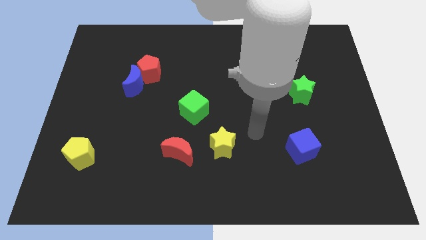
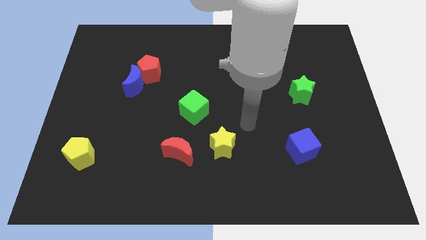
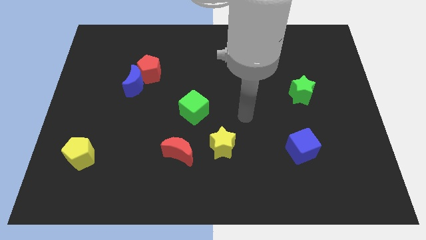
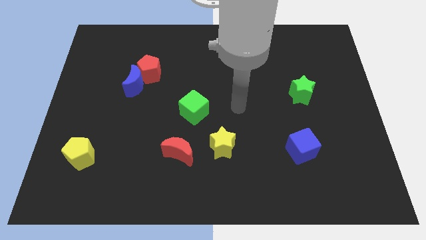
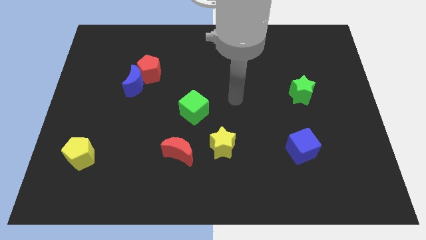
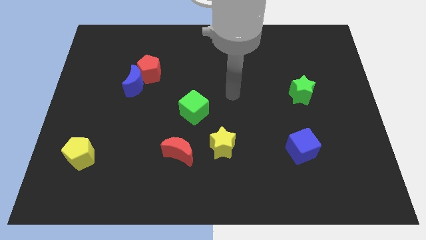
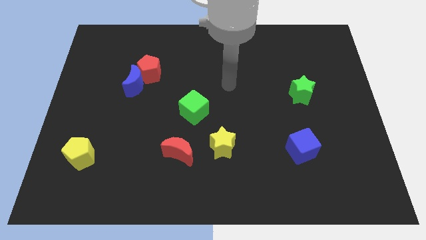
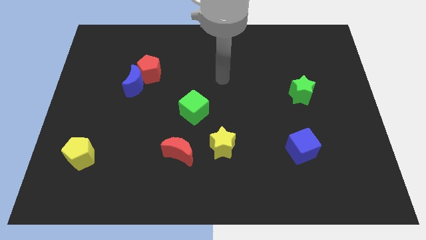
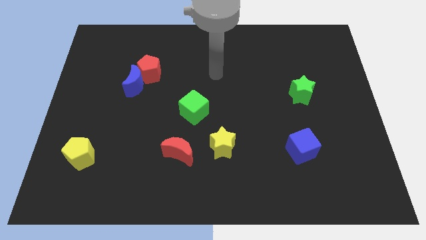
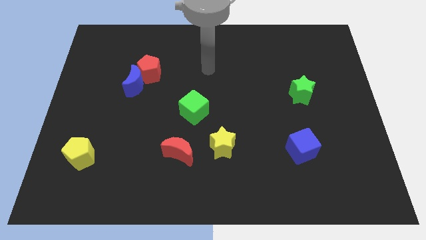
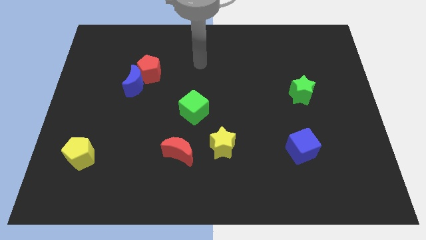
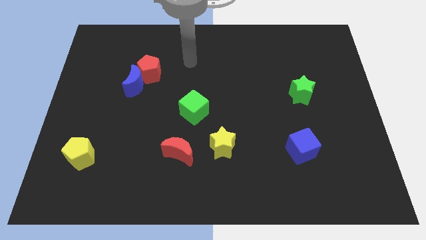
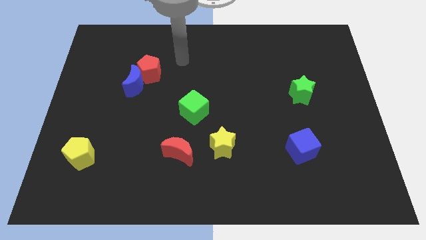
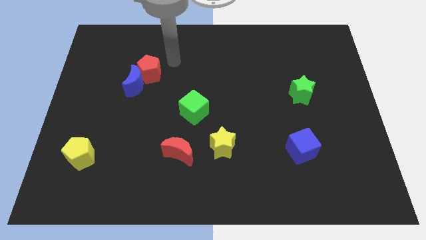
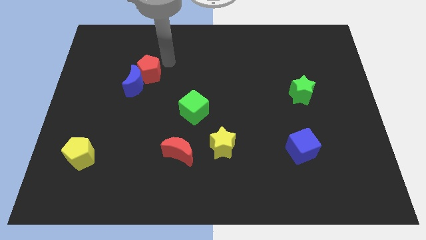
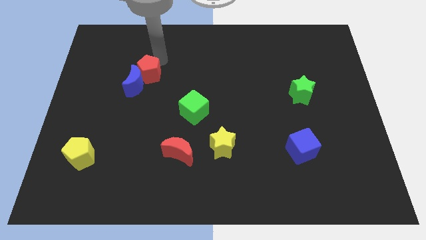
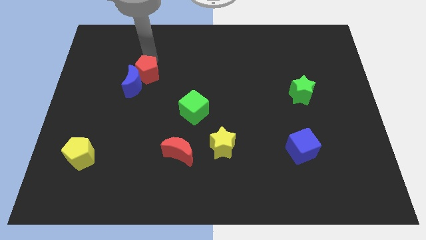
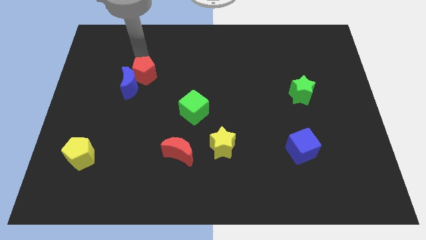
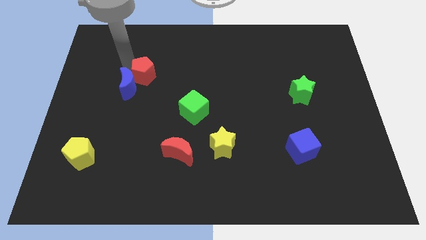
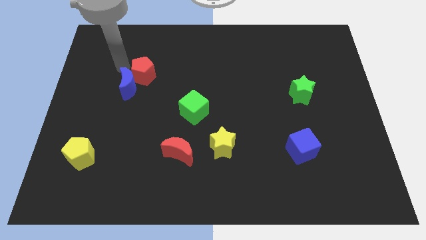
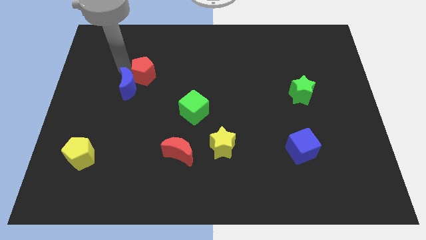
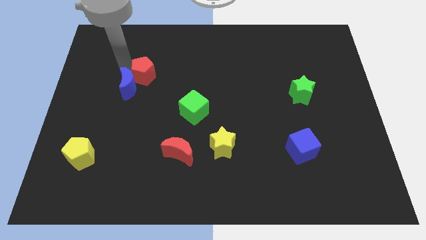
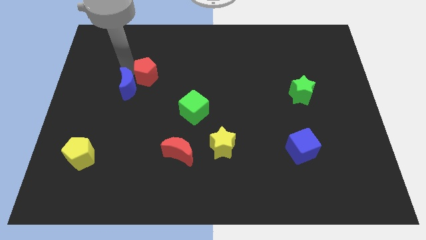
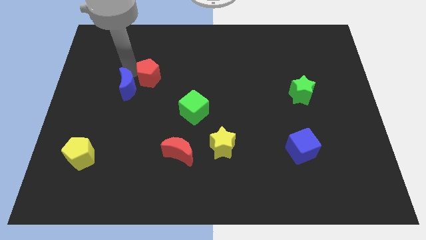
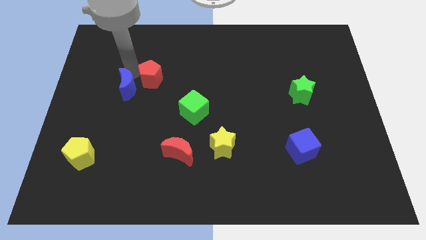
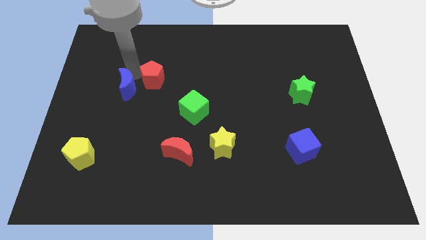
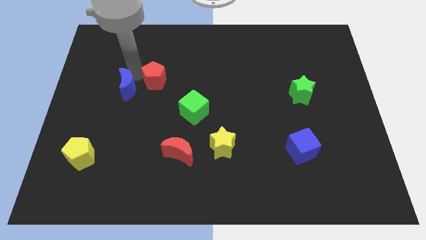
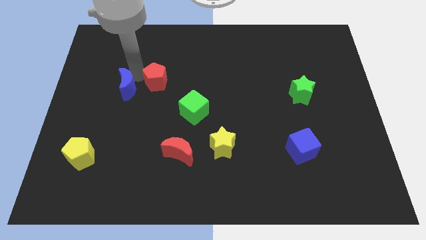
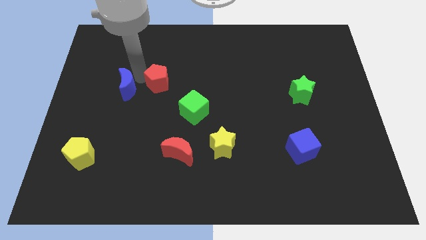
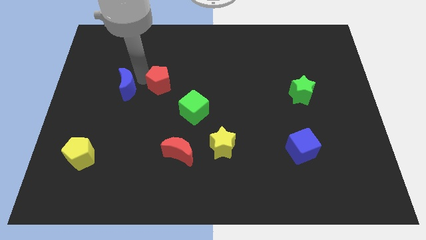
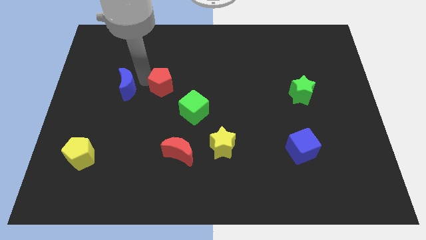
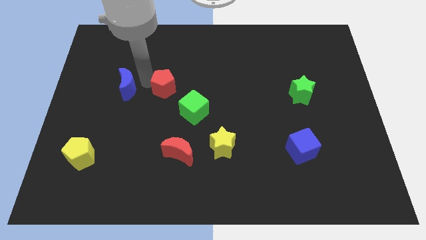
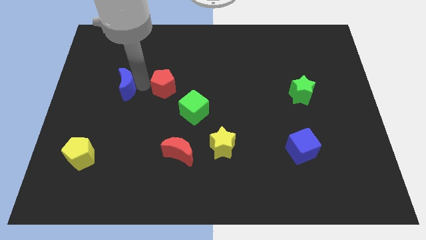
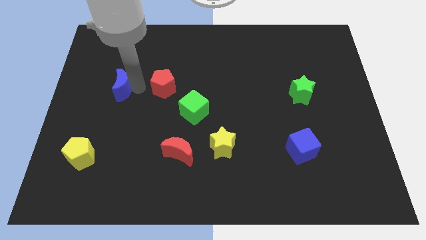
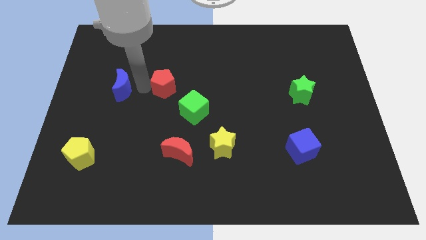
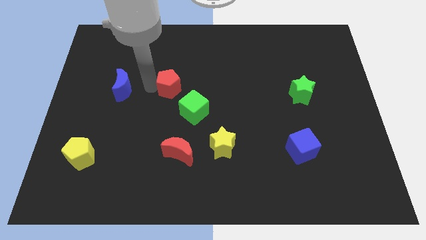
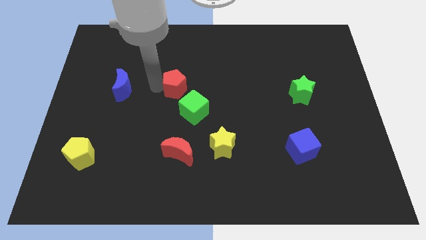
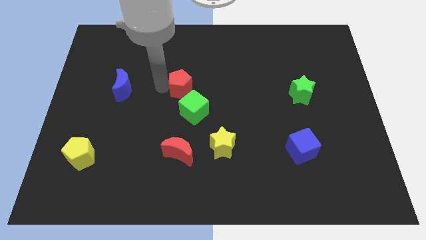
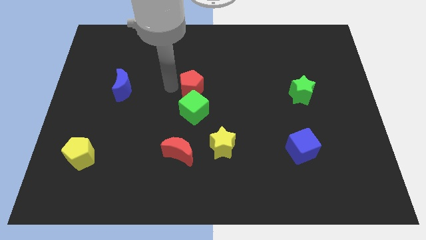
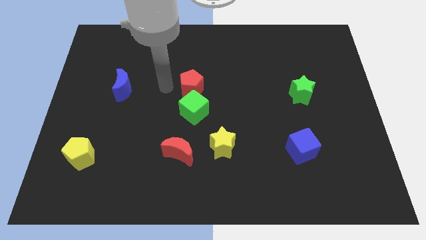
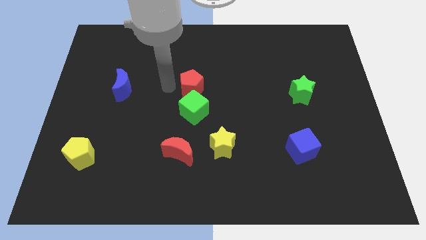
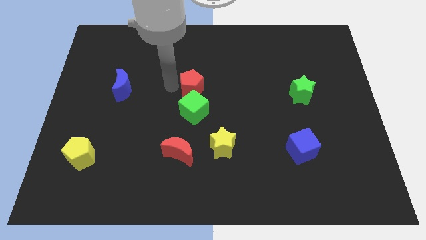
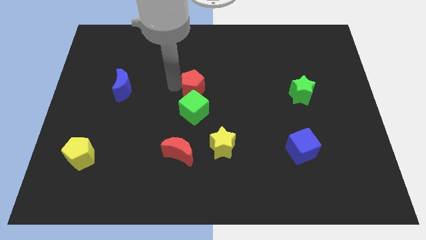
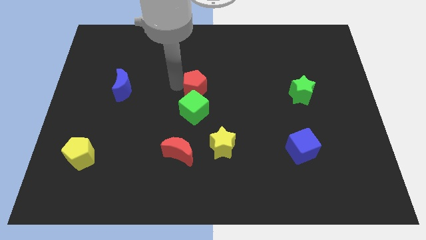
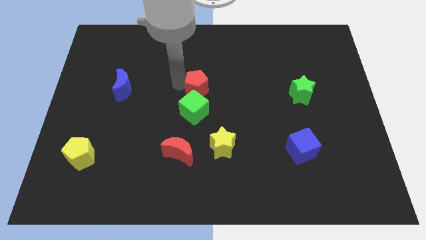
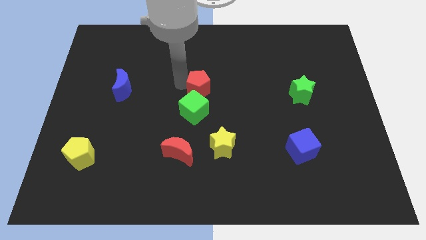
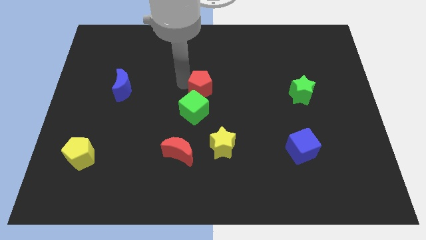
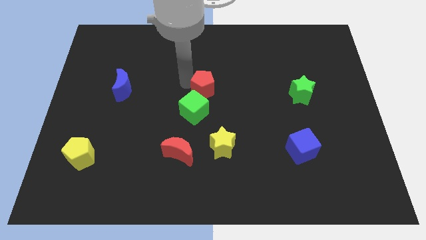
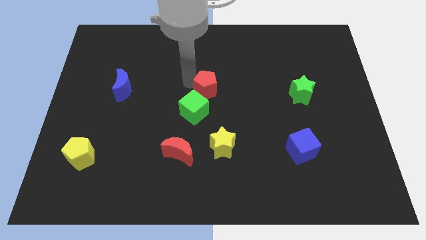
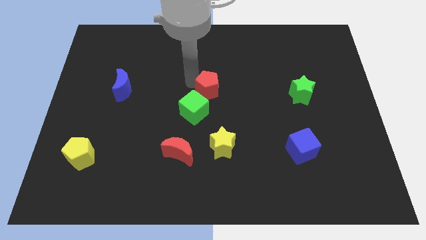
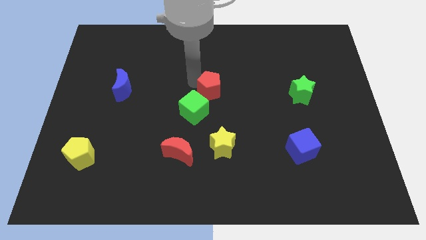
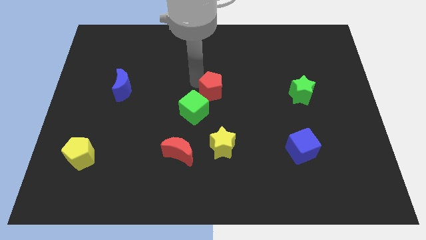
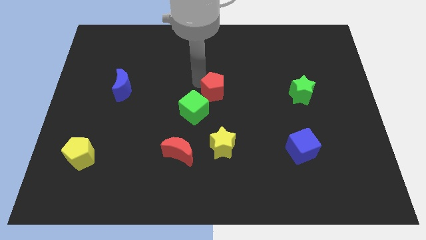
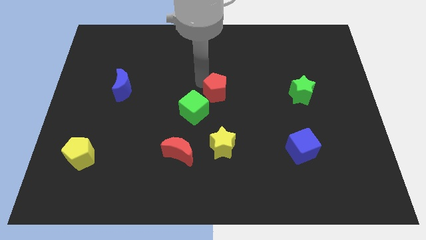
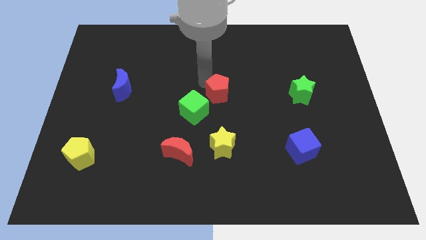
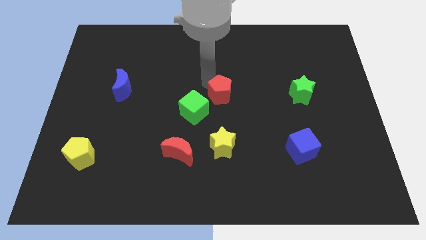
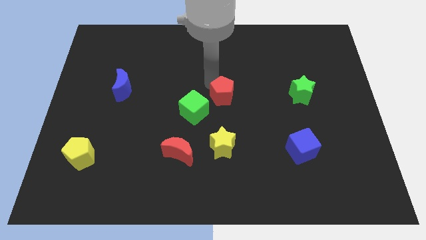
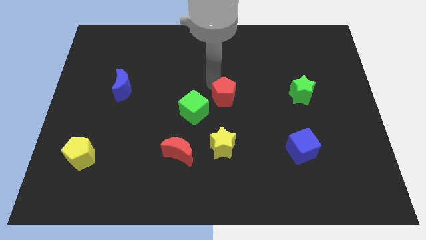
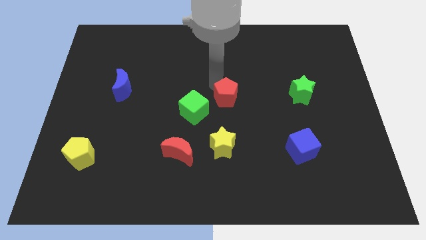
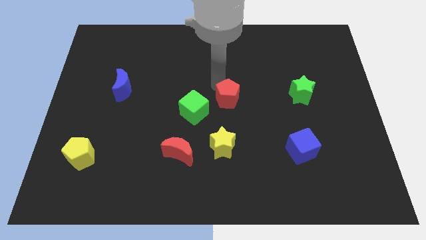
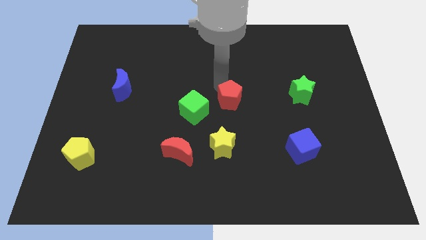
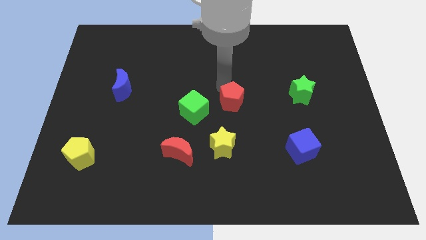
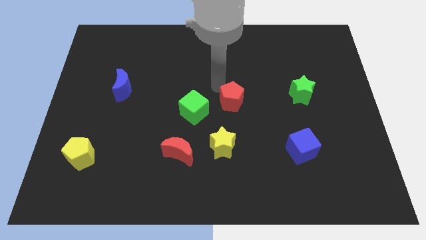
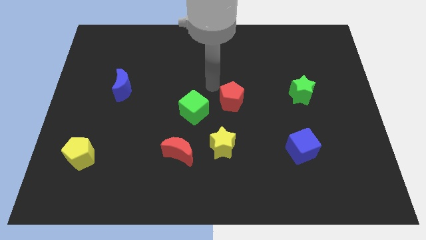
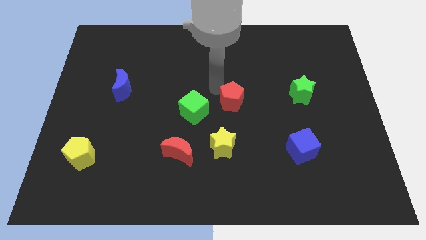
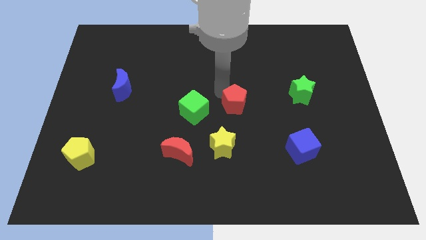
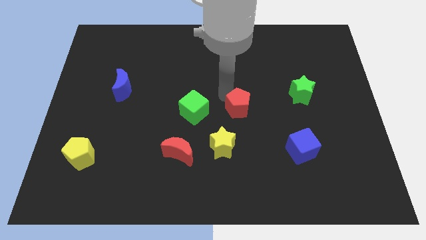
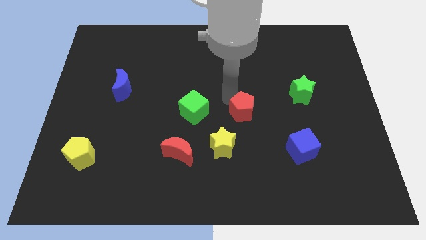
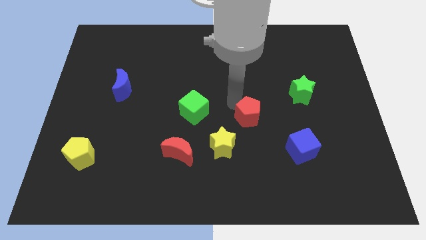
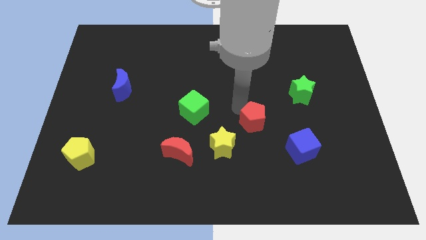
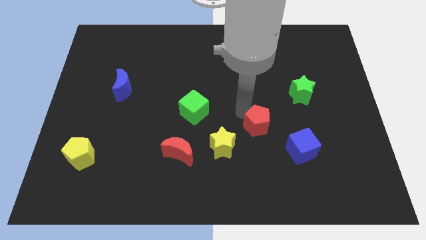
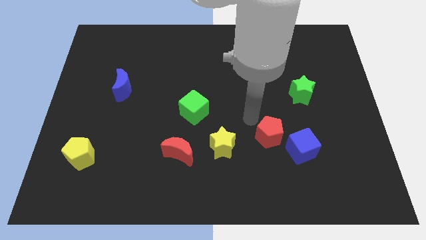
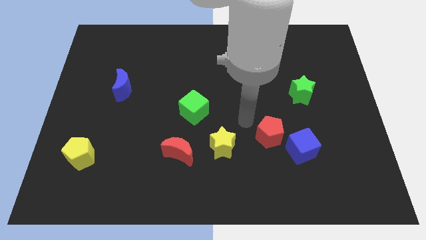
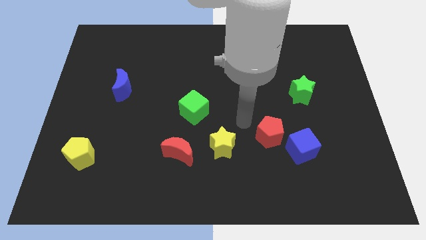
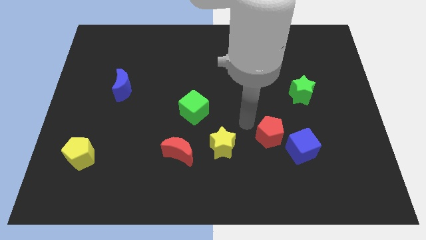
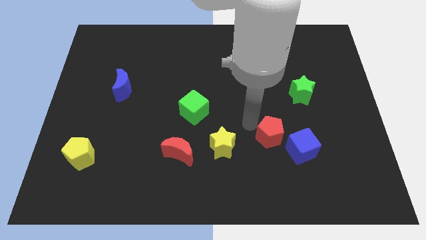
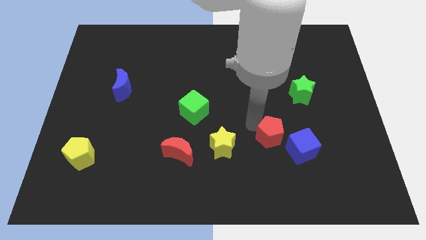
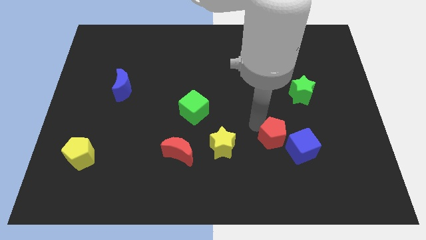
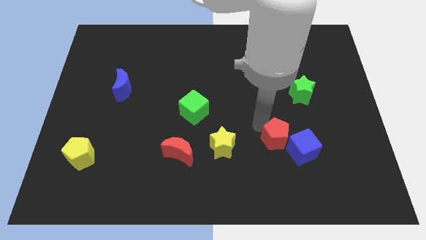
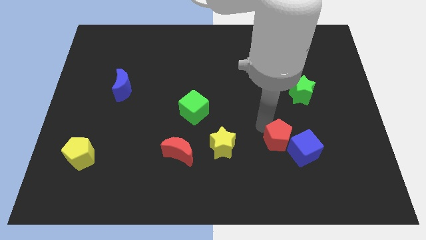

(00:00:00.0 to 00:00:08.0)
push the red pentagon next to the blue cube
